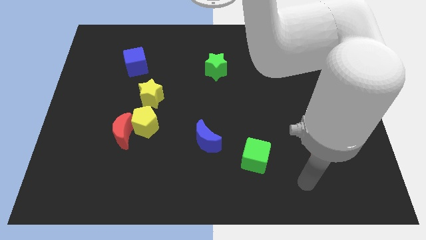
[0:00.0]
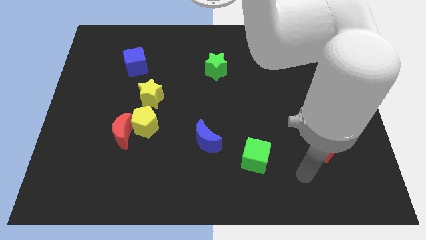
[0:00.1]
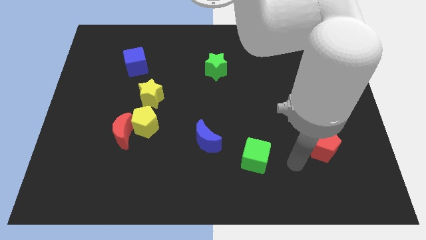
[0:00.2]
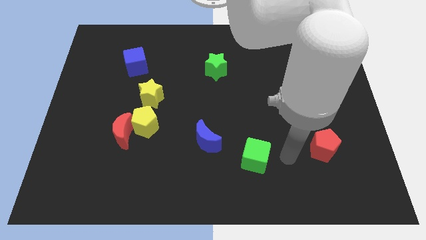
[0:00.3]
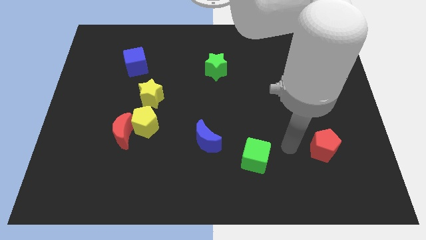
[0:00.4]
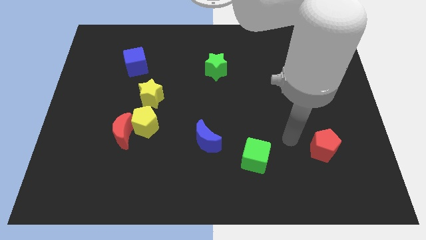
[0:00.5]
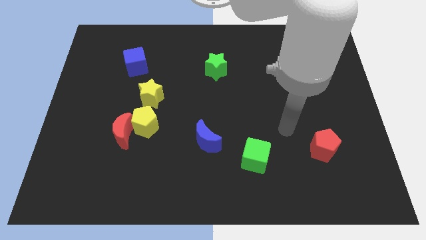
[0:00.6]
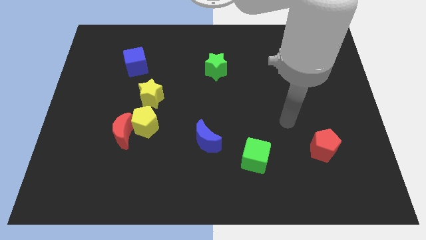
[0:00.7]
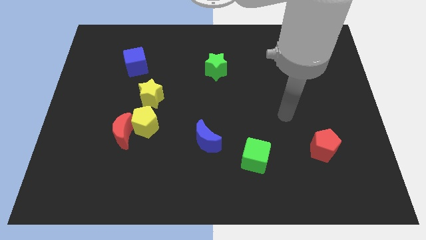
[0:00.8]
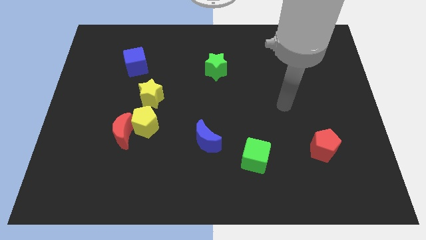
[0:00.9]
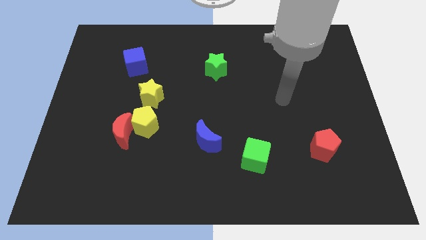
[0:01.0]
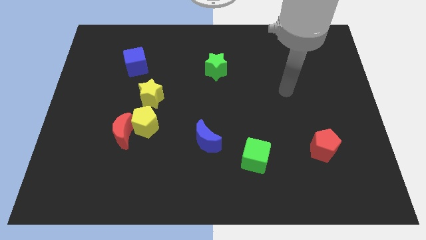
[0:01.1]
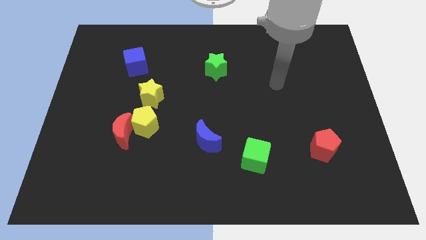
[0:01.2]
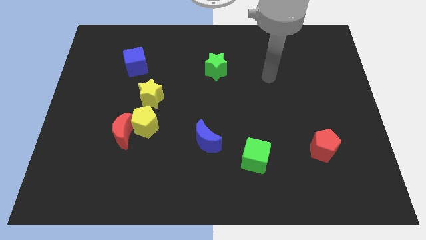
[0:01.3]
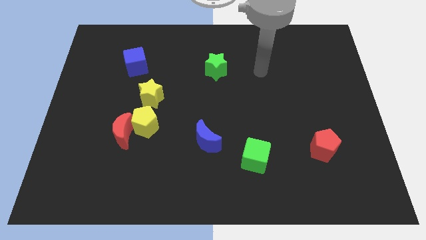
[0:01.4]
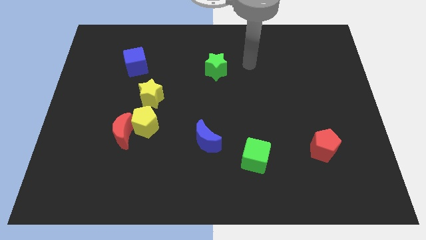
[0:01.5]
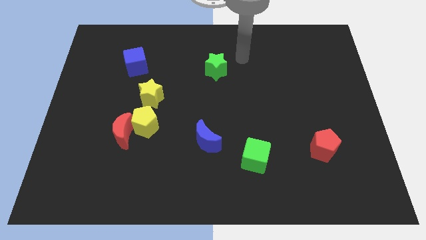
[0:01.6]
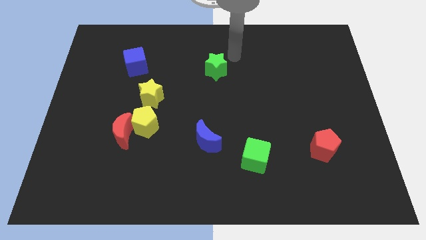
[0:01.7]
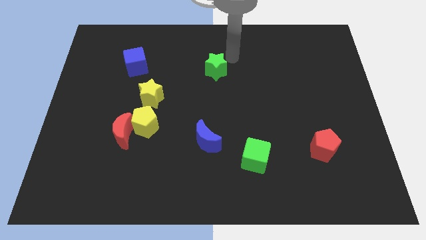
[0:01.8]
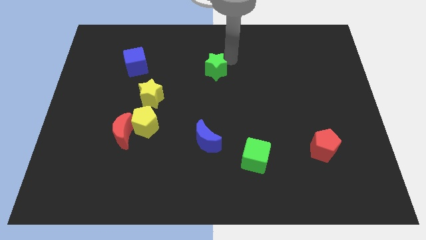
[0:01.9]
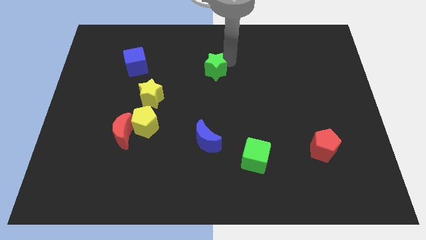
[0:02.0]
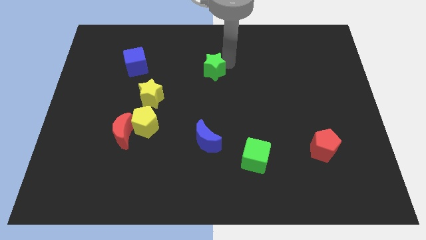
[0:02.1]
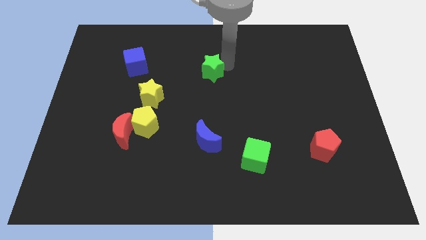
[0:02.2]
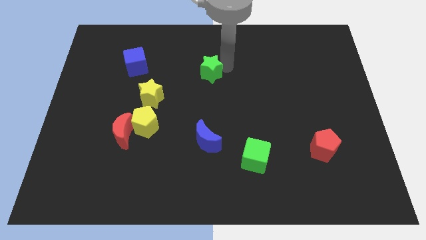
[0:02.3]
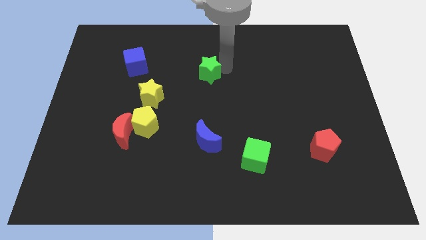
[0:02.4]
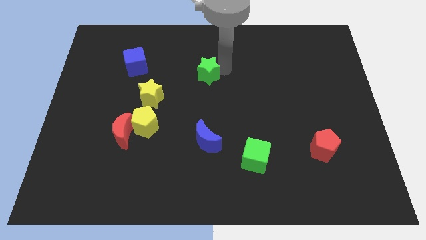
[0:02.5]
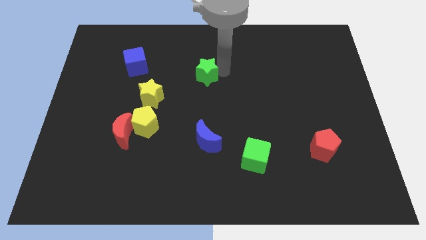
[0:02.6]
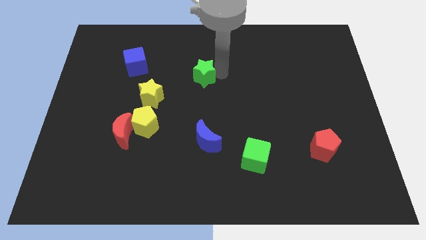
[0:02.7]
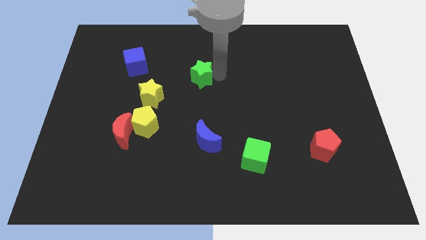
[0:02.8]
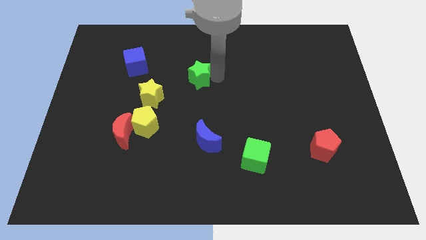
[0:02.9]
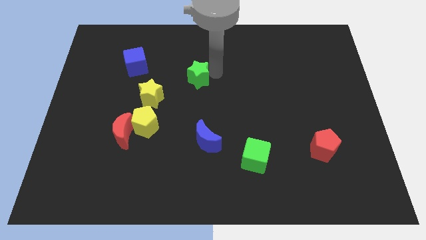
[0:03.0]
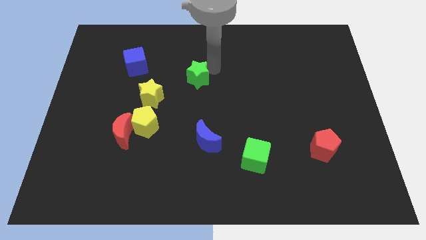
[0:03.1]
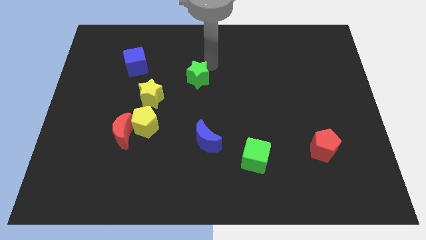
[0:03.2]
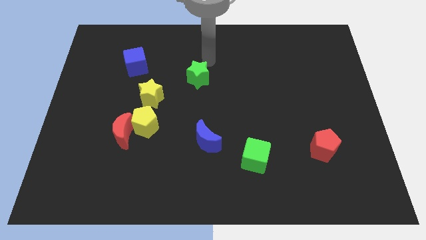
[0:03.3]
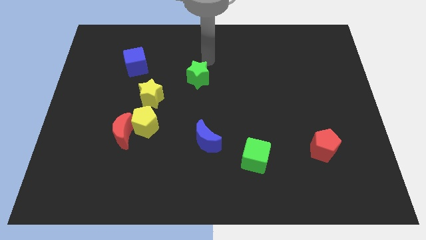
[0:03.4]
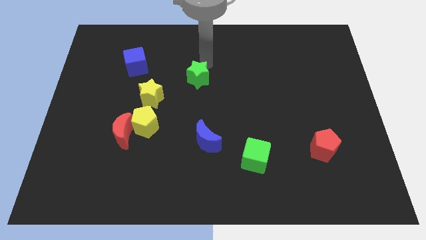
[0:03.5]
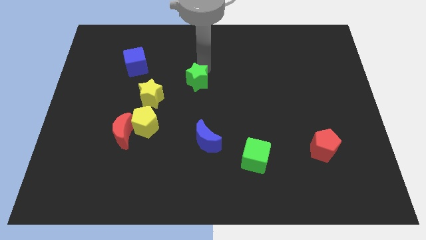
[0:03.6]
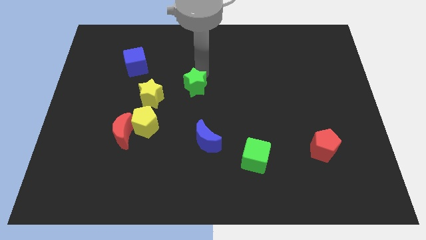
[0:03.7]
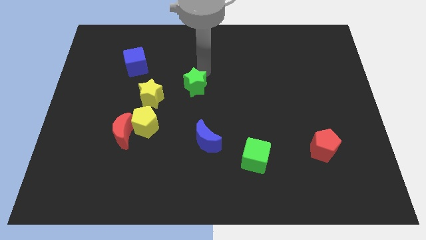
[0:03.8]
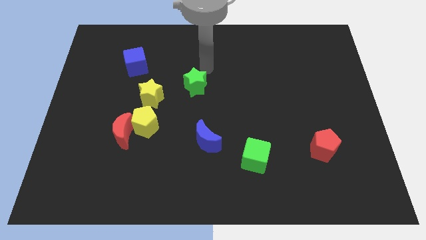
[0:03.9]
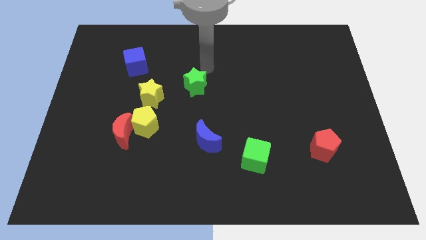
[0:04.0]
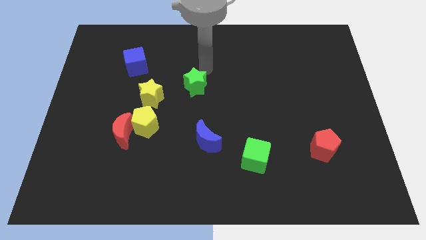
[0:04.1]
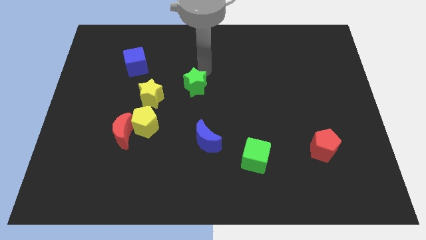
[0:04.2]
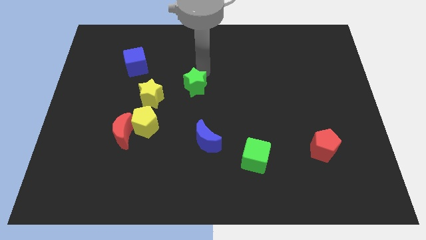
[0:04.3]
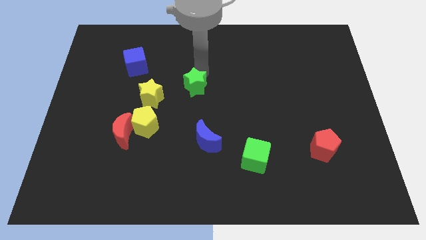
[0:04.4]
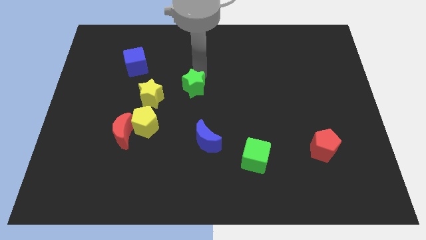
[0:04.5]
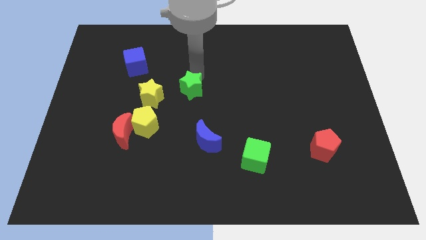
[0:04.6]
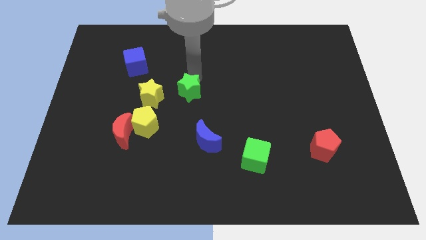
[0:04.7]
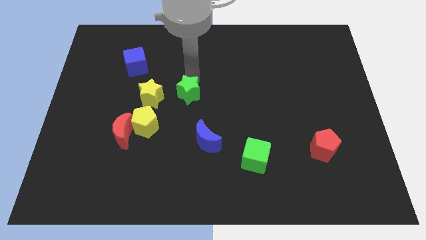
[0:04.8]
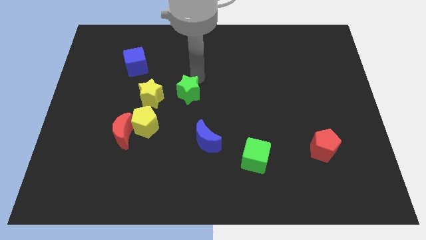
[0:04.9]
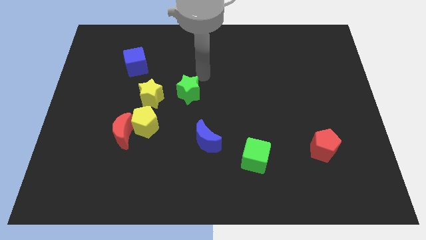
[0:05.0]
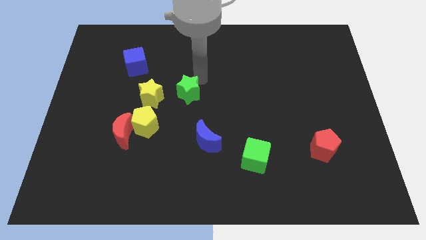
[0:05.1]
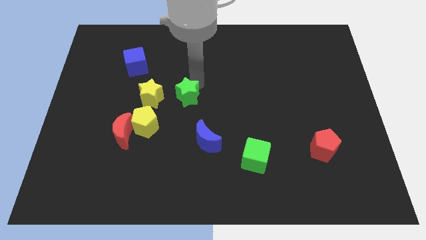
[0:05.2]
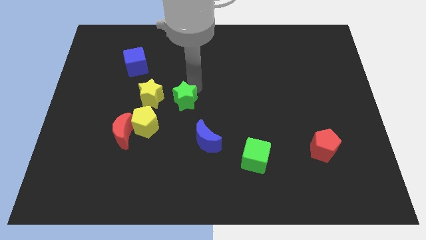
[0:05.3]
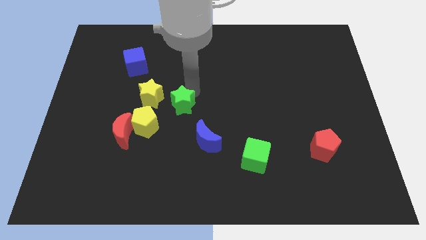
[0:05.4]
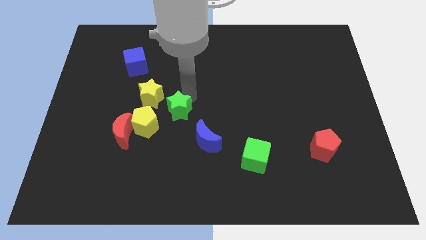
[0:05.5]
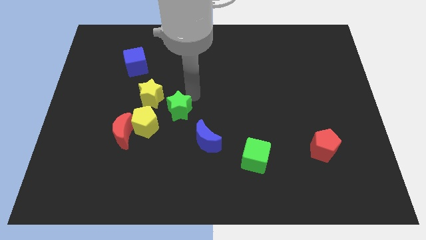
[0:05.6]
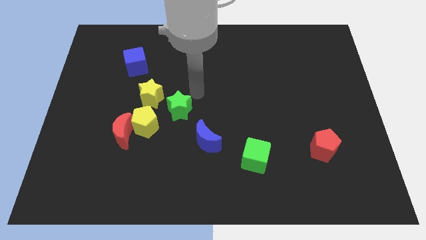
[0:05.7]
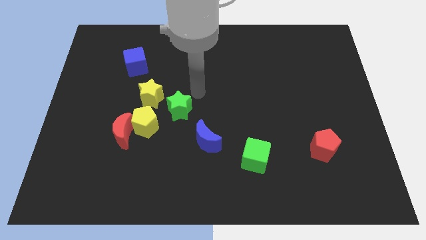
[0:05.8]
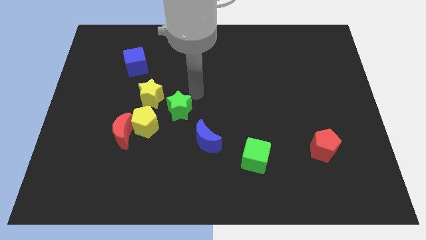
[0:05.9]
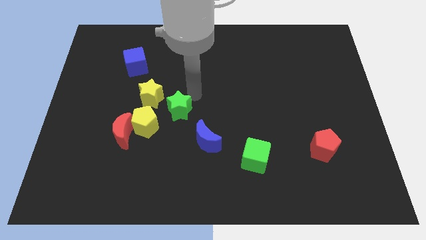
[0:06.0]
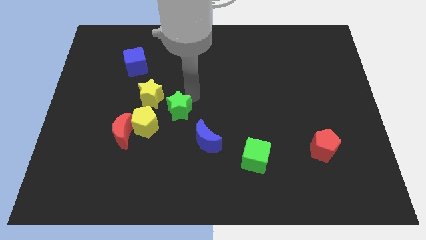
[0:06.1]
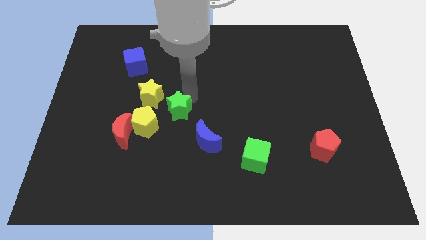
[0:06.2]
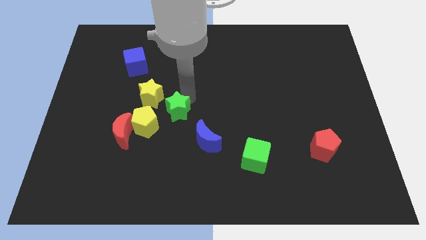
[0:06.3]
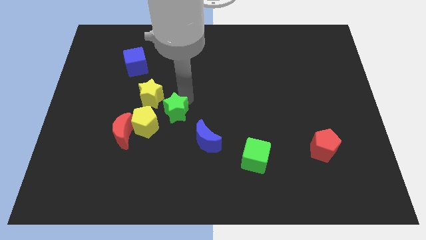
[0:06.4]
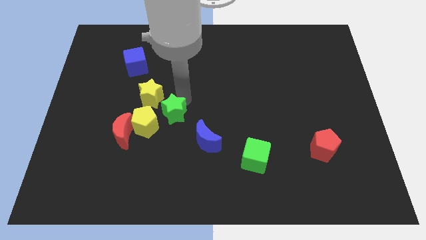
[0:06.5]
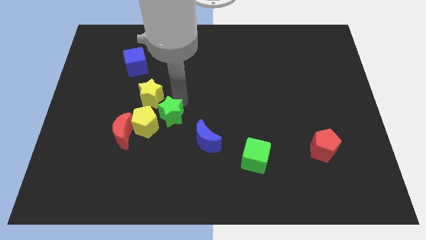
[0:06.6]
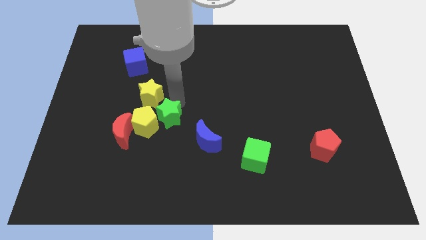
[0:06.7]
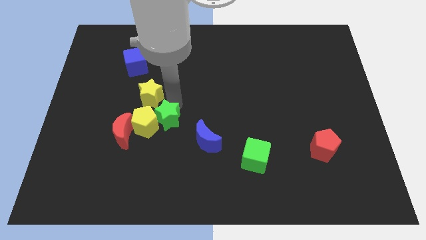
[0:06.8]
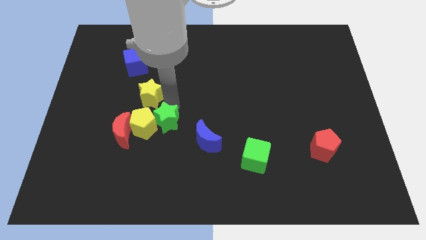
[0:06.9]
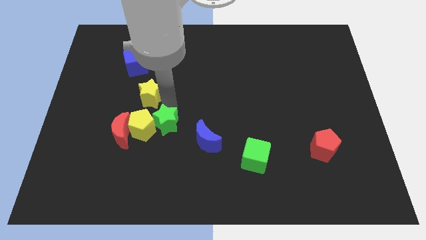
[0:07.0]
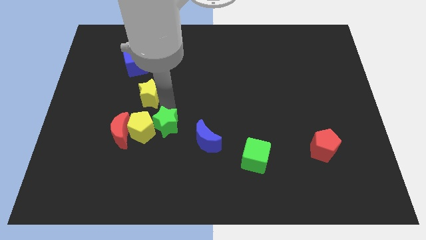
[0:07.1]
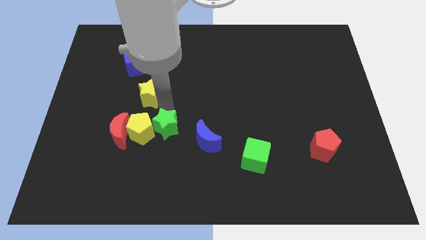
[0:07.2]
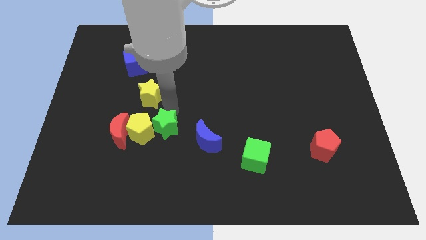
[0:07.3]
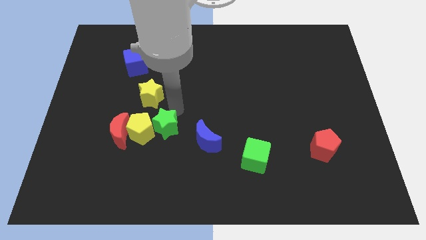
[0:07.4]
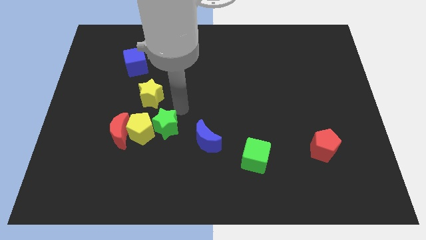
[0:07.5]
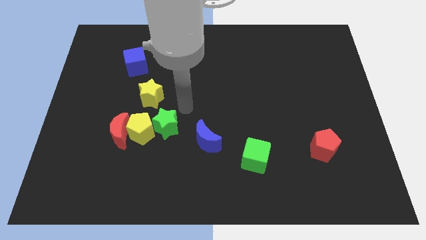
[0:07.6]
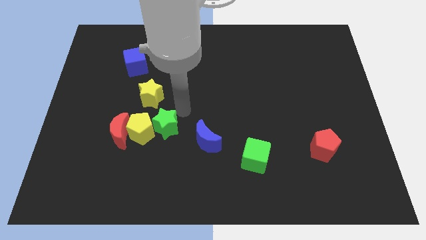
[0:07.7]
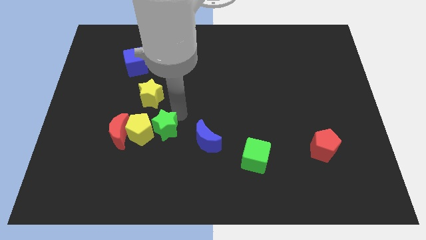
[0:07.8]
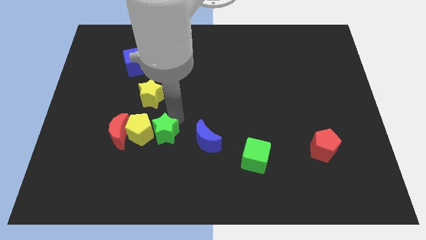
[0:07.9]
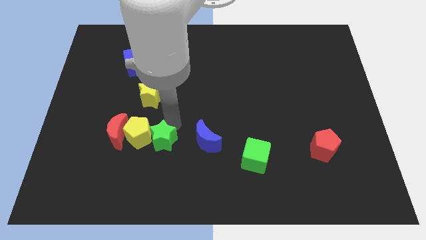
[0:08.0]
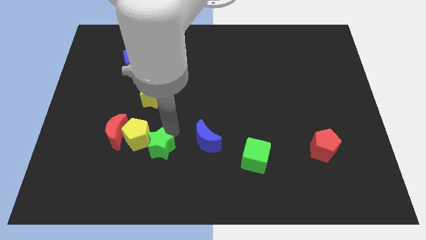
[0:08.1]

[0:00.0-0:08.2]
put the green star to the bottom right of the red moon
